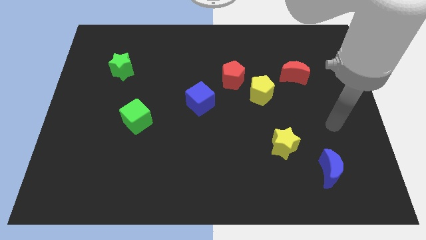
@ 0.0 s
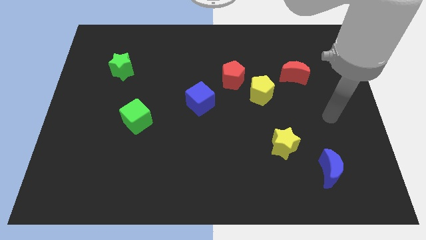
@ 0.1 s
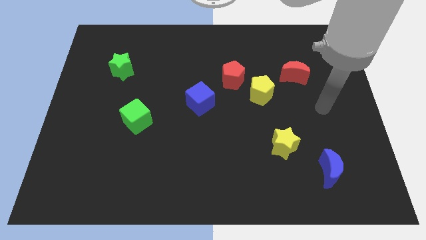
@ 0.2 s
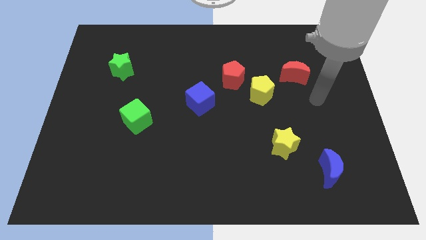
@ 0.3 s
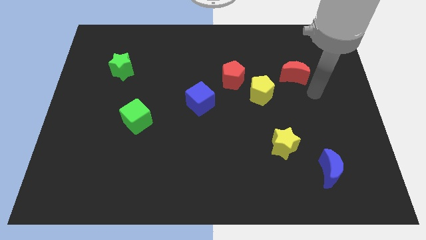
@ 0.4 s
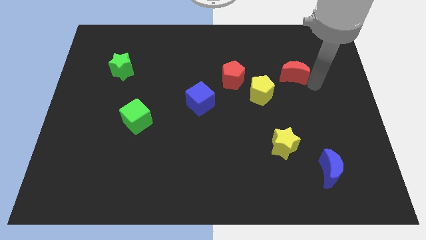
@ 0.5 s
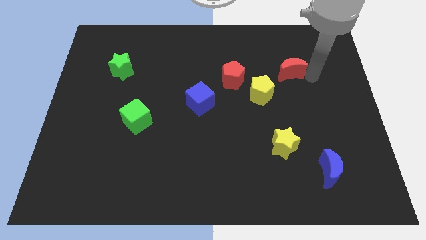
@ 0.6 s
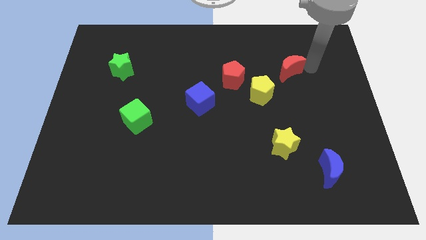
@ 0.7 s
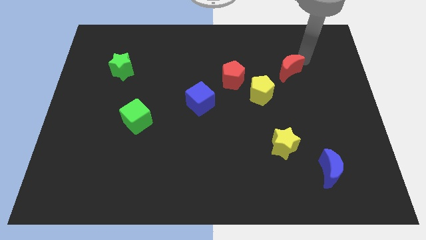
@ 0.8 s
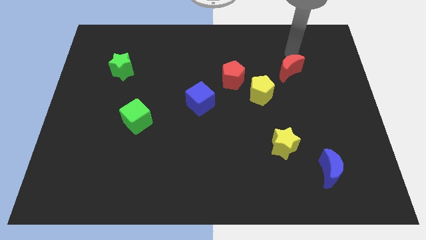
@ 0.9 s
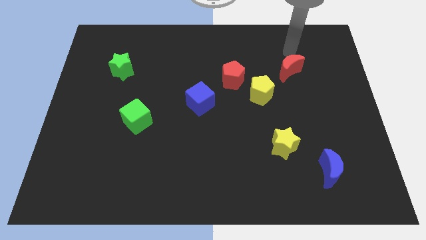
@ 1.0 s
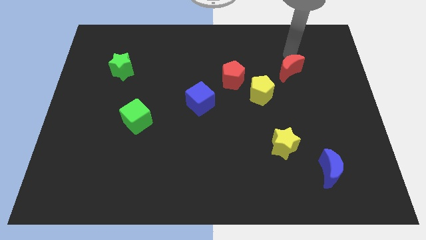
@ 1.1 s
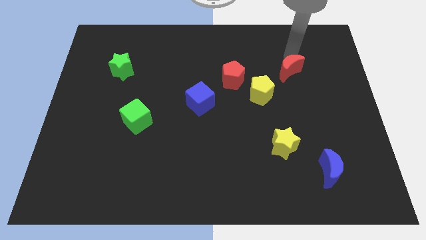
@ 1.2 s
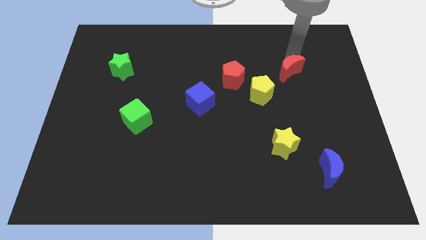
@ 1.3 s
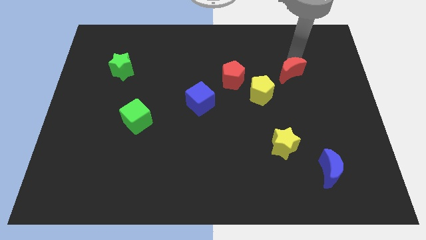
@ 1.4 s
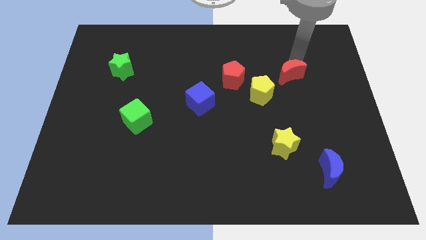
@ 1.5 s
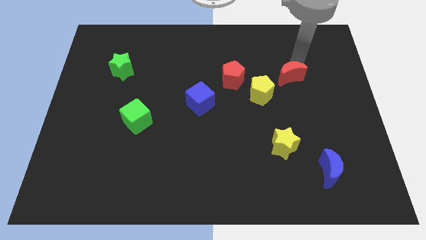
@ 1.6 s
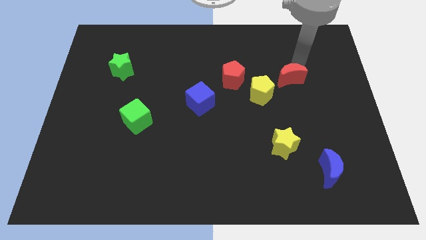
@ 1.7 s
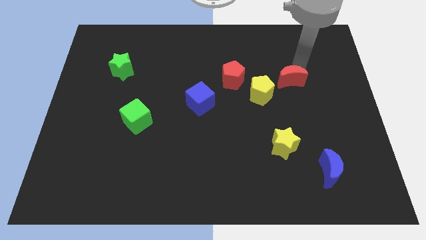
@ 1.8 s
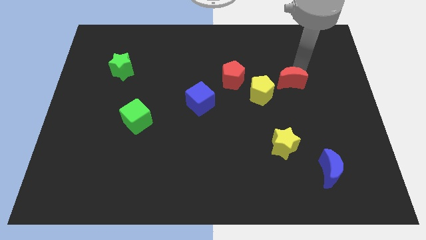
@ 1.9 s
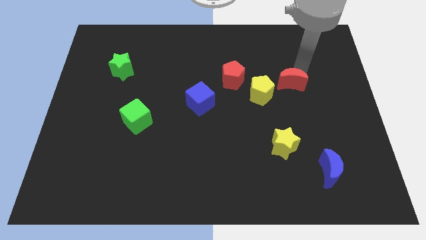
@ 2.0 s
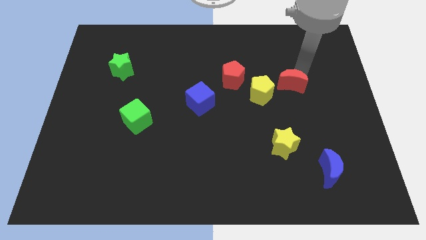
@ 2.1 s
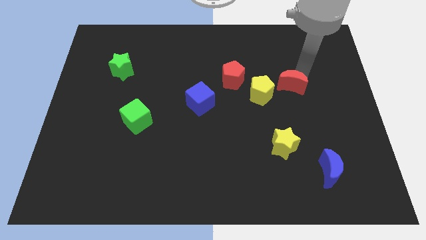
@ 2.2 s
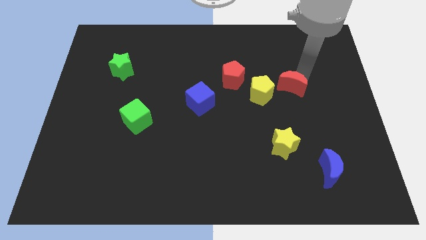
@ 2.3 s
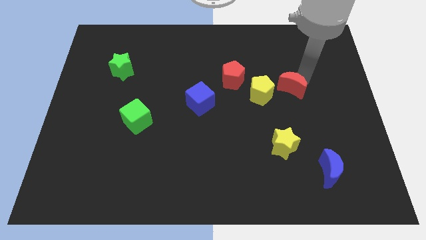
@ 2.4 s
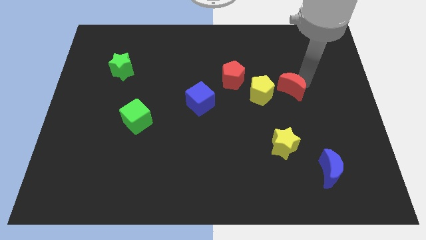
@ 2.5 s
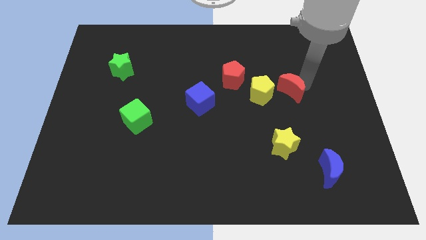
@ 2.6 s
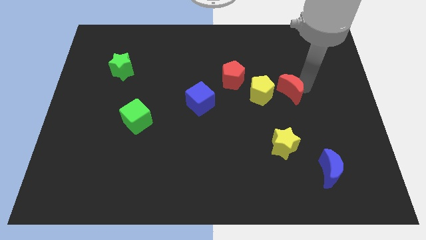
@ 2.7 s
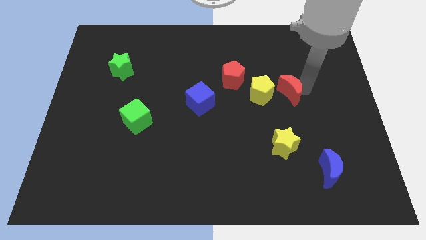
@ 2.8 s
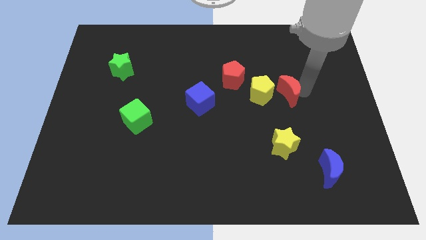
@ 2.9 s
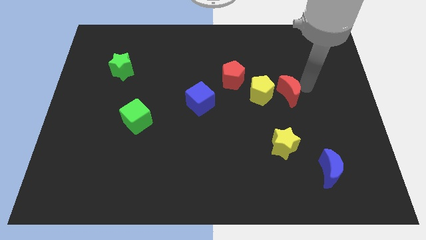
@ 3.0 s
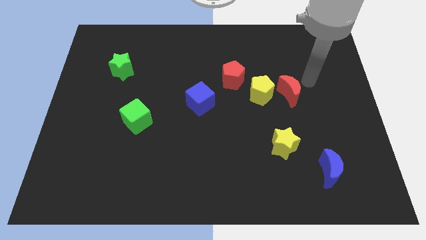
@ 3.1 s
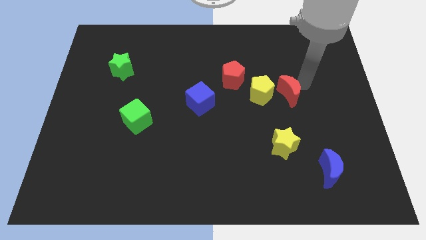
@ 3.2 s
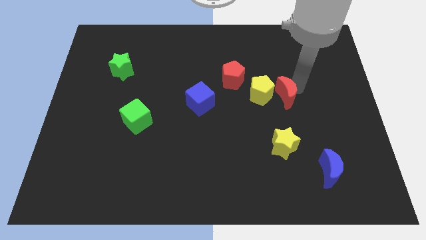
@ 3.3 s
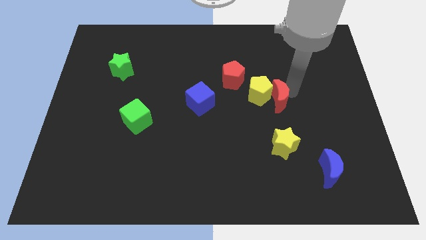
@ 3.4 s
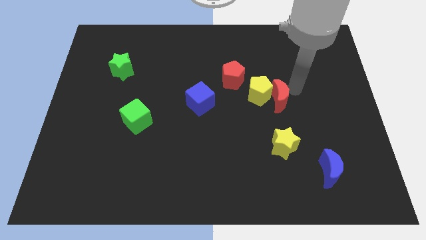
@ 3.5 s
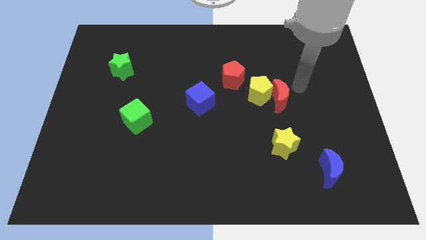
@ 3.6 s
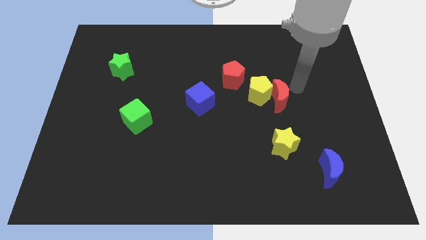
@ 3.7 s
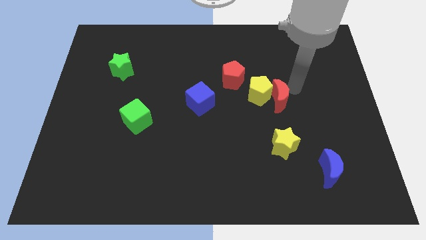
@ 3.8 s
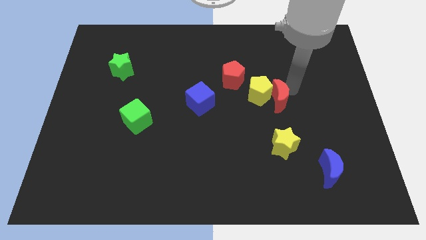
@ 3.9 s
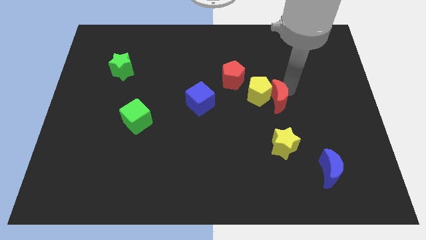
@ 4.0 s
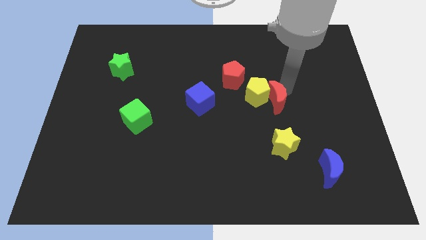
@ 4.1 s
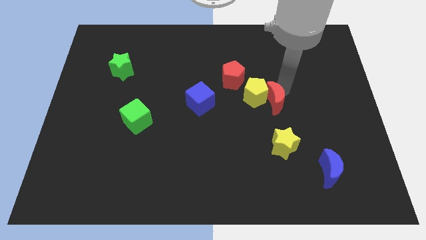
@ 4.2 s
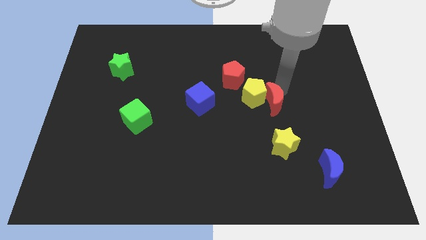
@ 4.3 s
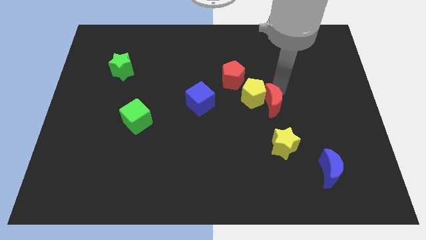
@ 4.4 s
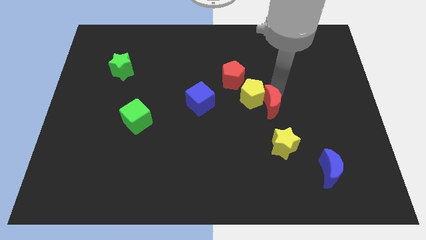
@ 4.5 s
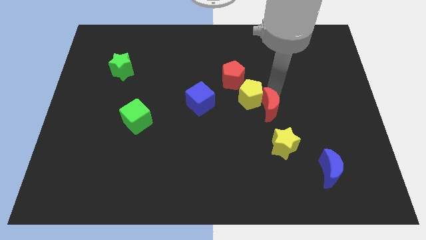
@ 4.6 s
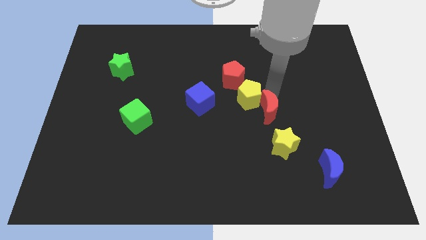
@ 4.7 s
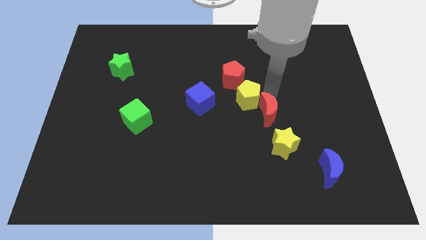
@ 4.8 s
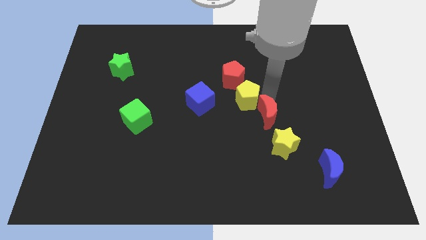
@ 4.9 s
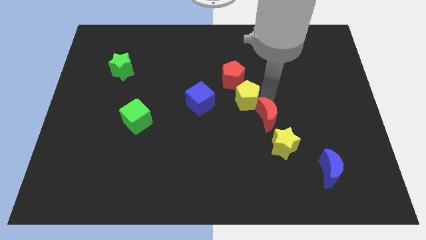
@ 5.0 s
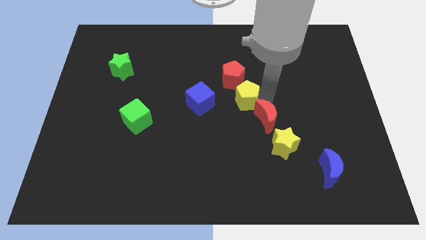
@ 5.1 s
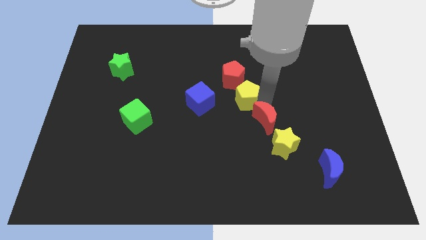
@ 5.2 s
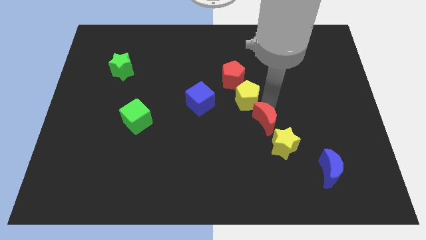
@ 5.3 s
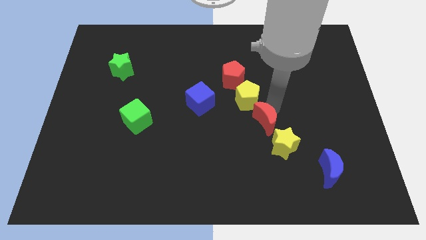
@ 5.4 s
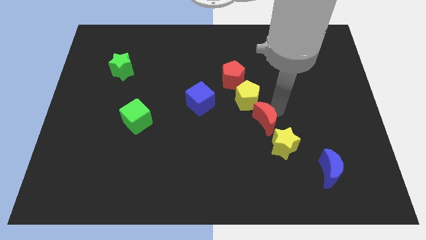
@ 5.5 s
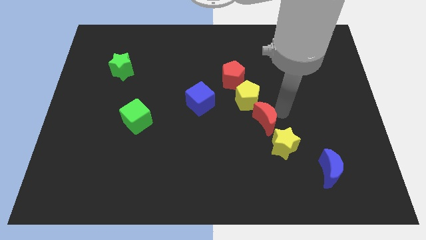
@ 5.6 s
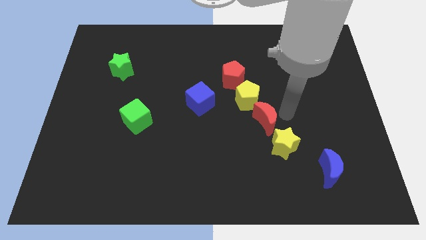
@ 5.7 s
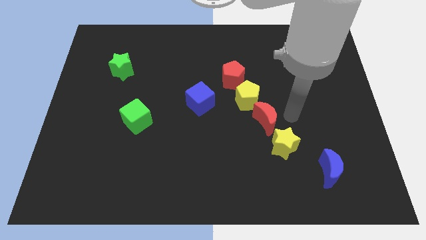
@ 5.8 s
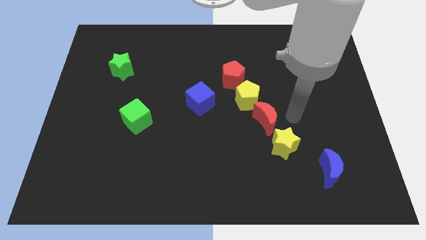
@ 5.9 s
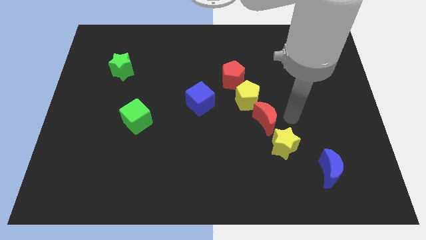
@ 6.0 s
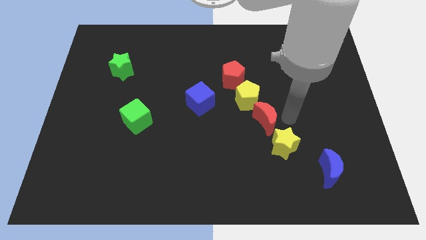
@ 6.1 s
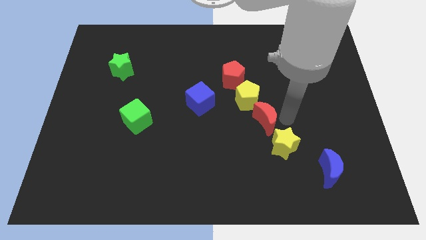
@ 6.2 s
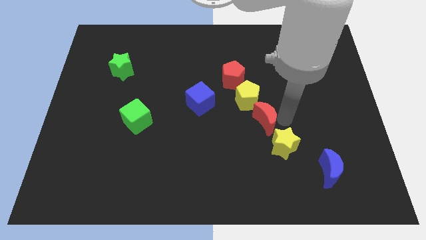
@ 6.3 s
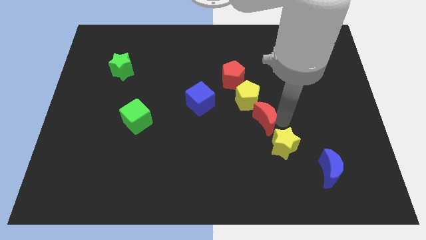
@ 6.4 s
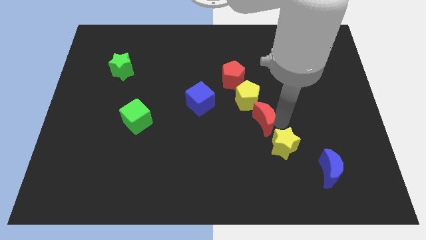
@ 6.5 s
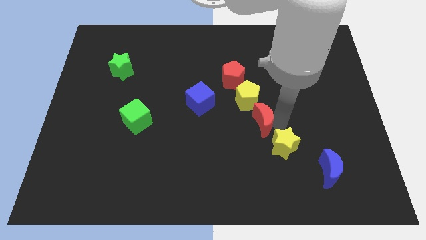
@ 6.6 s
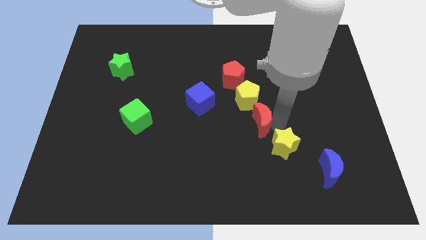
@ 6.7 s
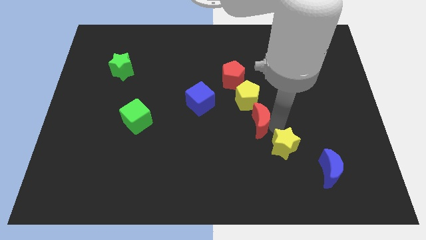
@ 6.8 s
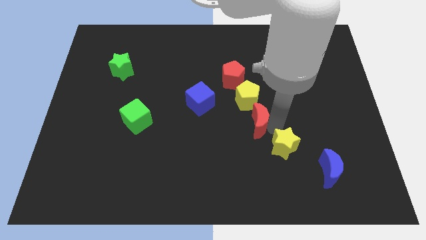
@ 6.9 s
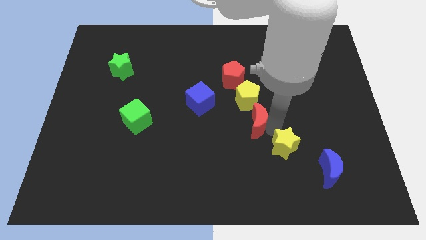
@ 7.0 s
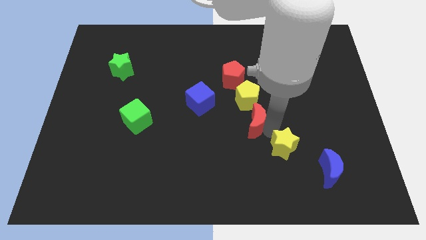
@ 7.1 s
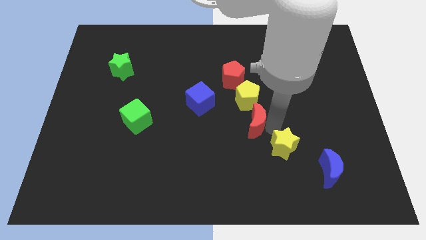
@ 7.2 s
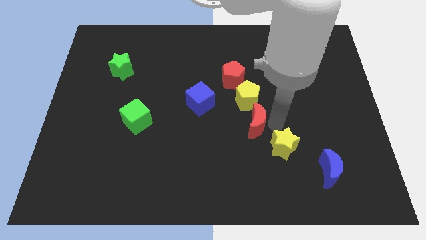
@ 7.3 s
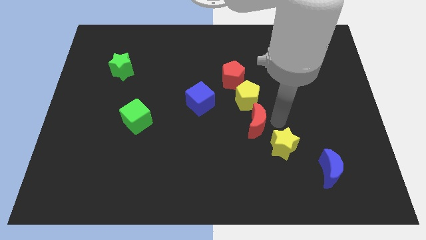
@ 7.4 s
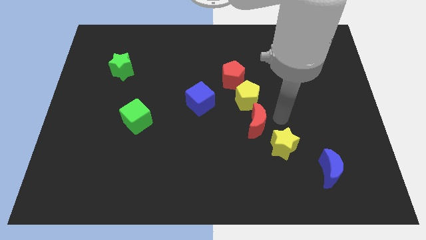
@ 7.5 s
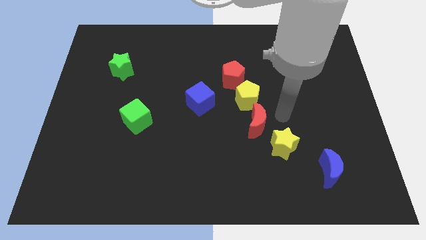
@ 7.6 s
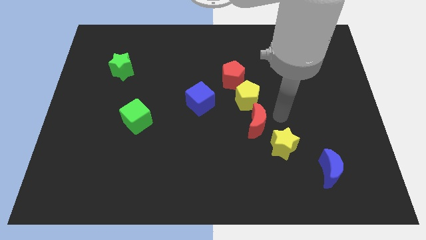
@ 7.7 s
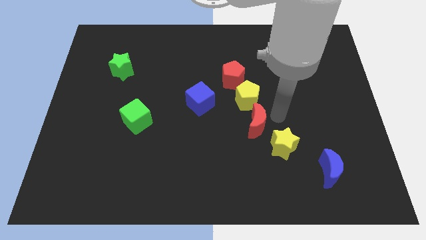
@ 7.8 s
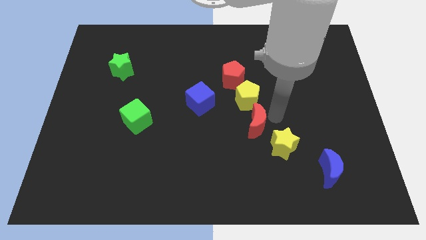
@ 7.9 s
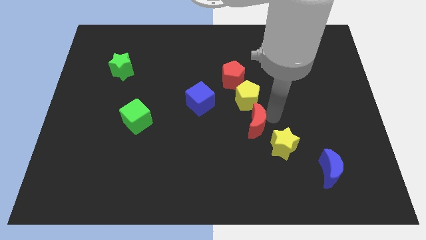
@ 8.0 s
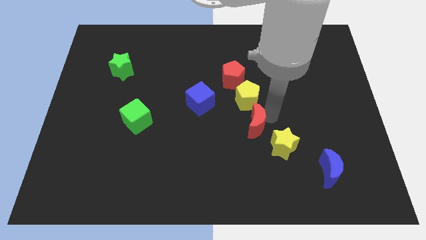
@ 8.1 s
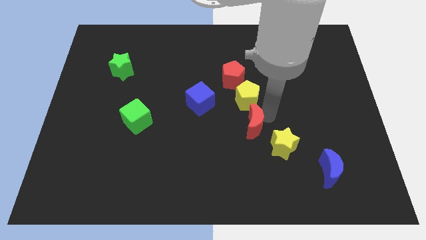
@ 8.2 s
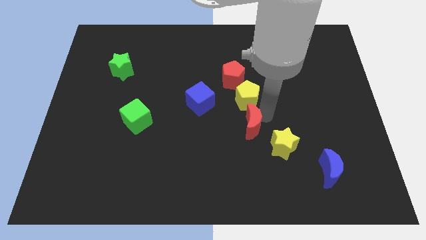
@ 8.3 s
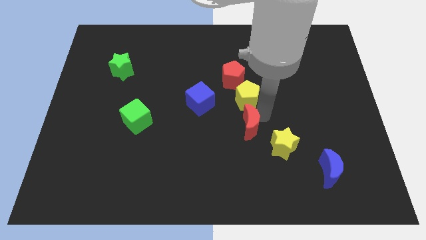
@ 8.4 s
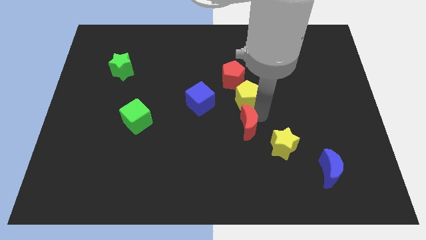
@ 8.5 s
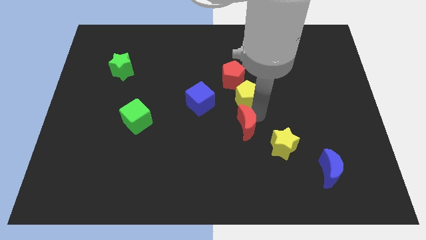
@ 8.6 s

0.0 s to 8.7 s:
slide the red moon down and left diagonally
